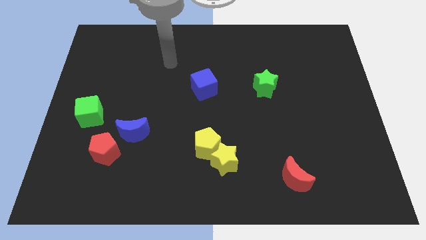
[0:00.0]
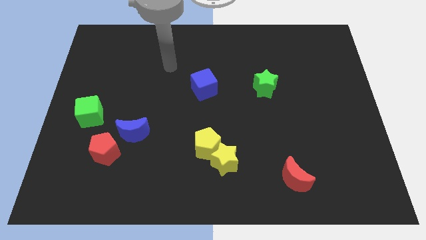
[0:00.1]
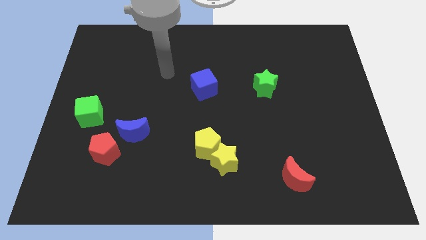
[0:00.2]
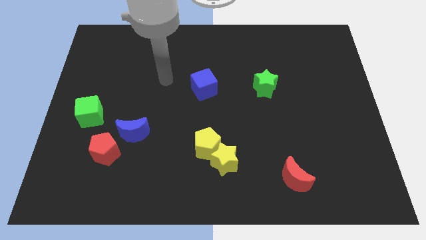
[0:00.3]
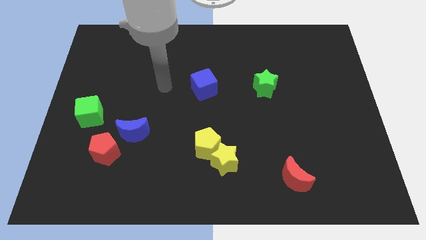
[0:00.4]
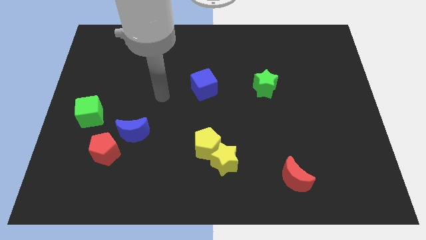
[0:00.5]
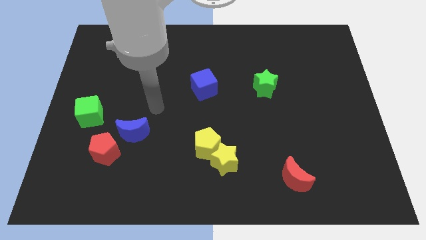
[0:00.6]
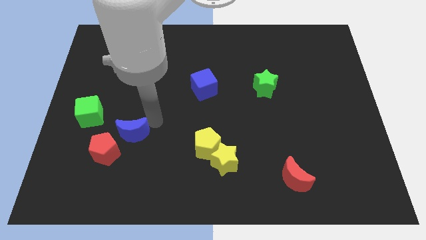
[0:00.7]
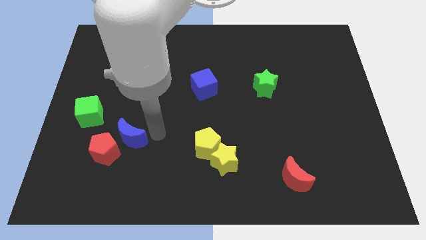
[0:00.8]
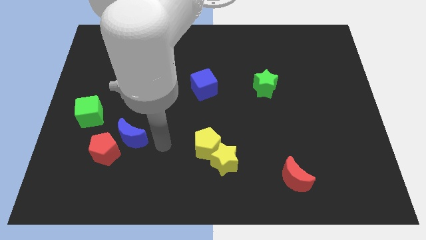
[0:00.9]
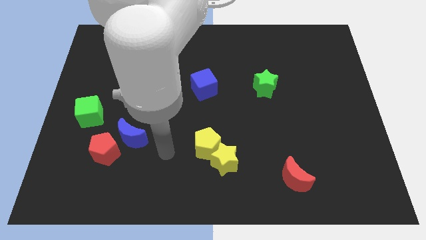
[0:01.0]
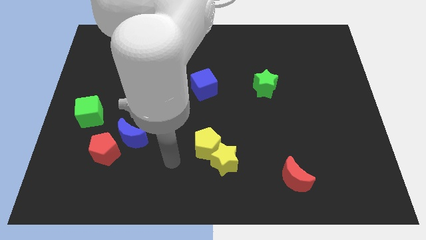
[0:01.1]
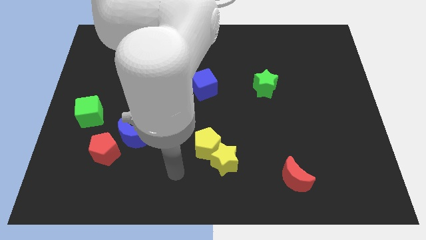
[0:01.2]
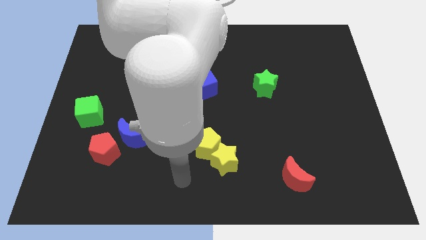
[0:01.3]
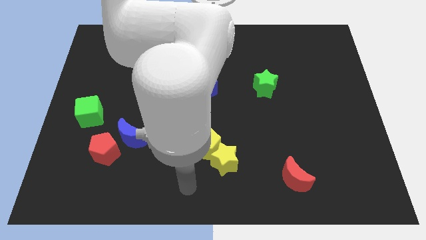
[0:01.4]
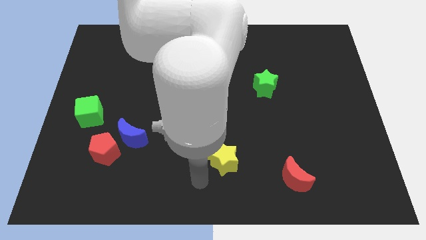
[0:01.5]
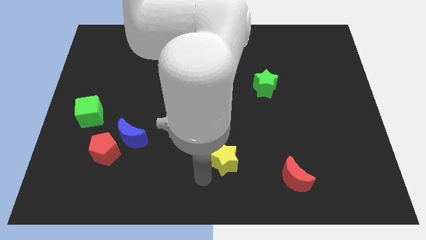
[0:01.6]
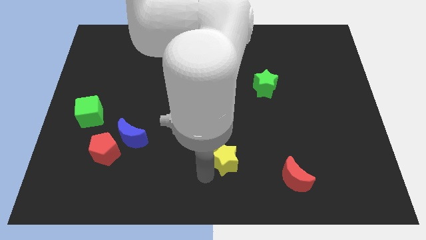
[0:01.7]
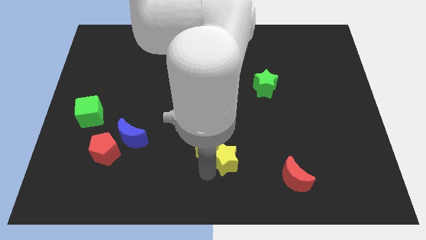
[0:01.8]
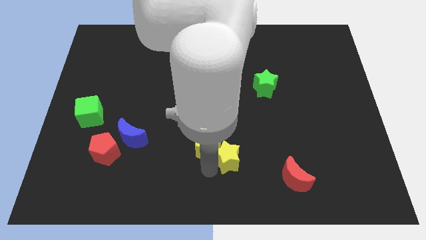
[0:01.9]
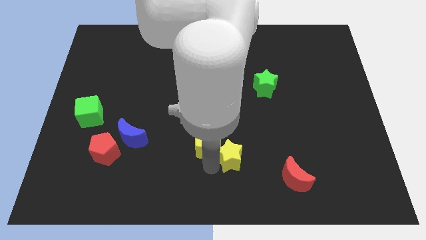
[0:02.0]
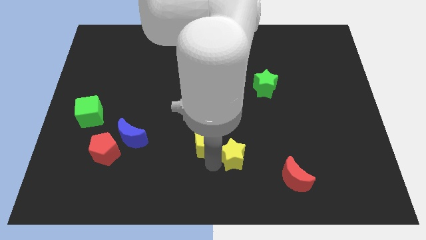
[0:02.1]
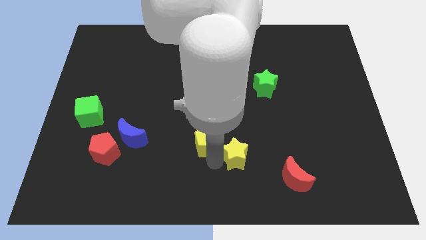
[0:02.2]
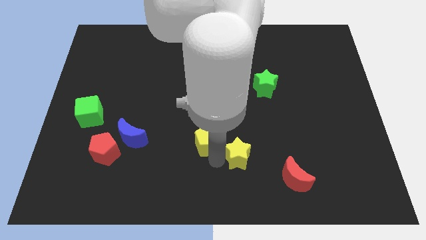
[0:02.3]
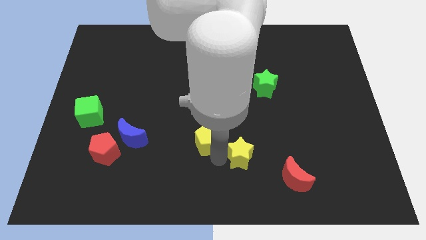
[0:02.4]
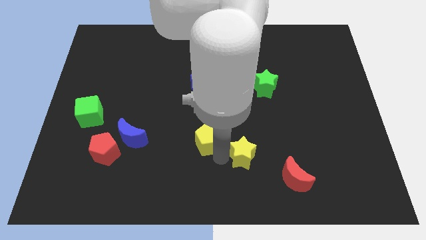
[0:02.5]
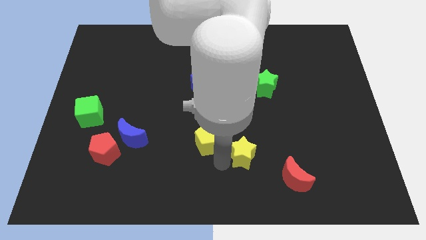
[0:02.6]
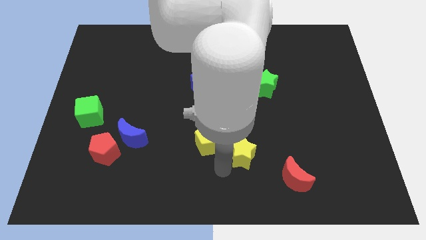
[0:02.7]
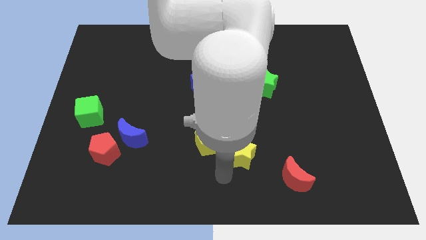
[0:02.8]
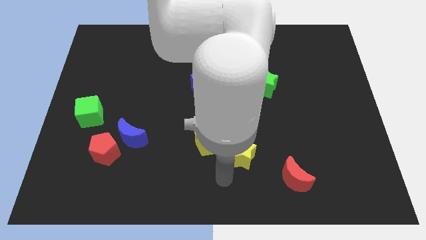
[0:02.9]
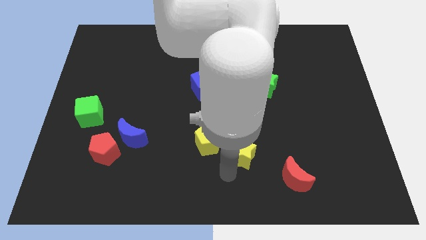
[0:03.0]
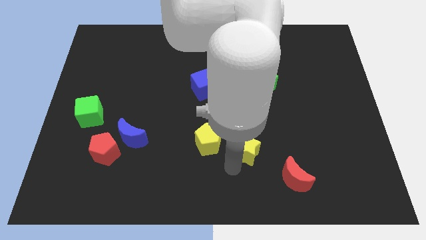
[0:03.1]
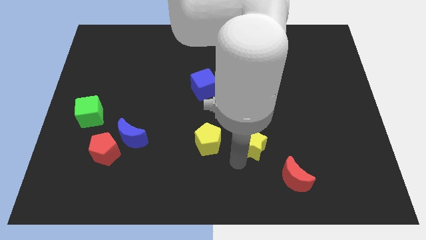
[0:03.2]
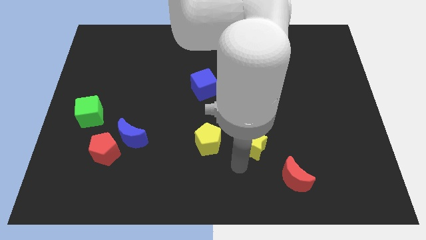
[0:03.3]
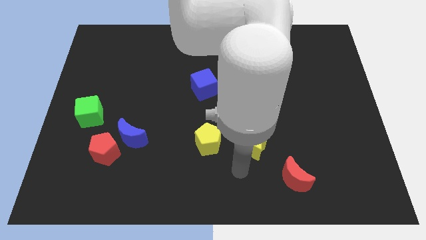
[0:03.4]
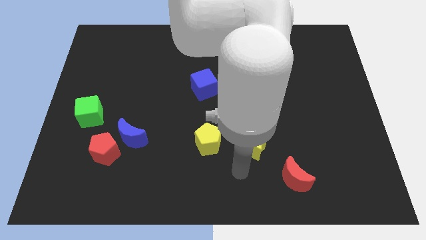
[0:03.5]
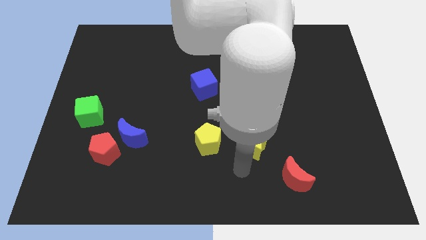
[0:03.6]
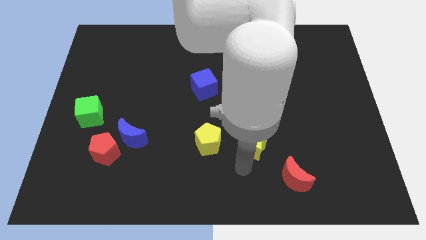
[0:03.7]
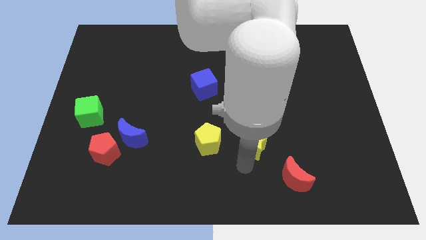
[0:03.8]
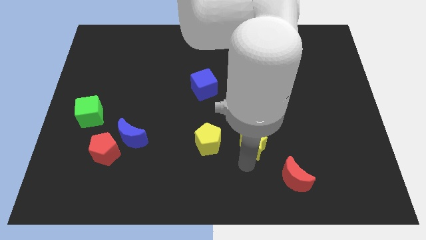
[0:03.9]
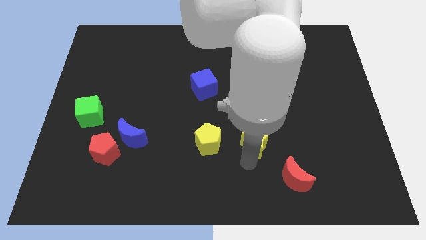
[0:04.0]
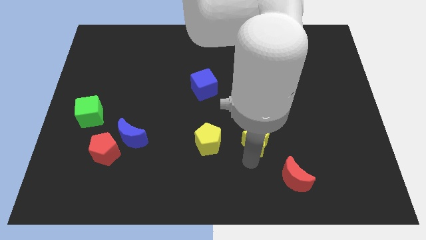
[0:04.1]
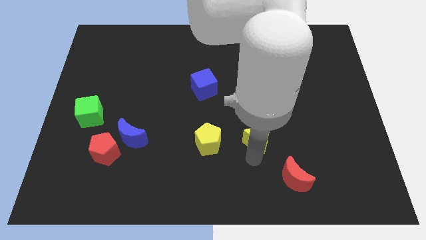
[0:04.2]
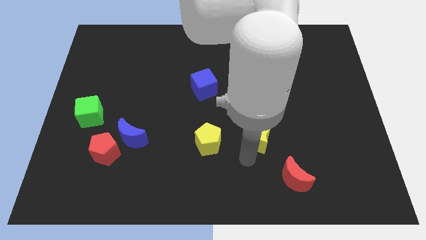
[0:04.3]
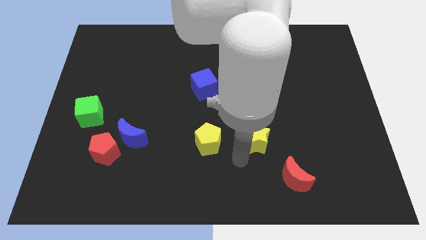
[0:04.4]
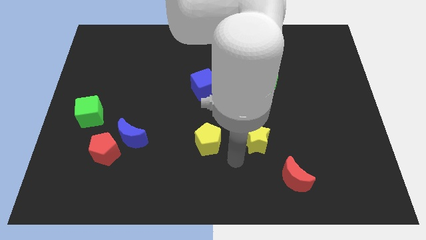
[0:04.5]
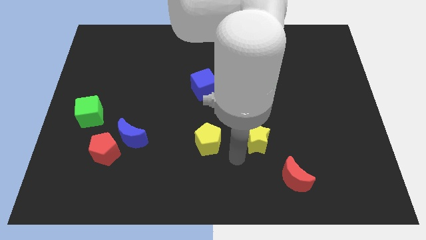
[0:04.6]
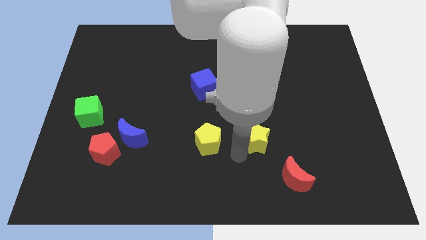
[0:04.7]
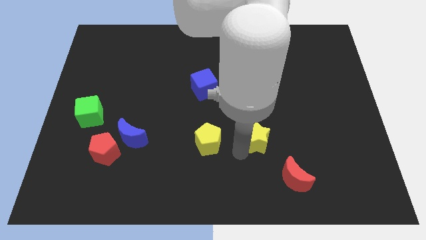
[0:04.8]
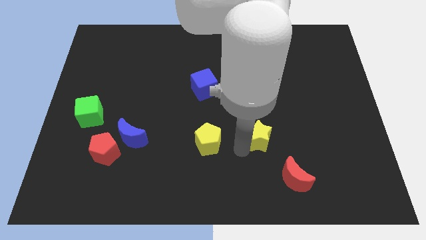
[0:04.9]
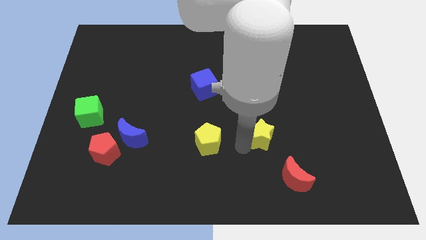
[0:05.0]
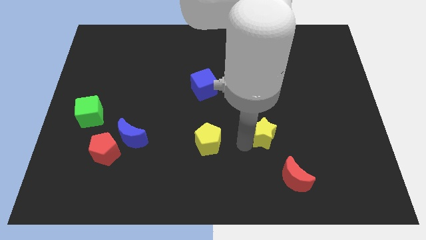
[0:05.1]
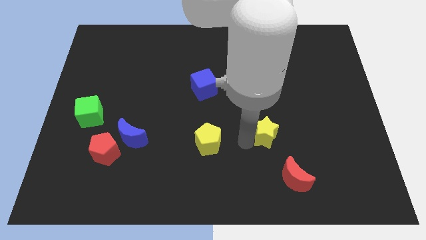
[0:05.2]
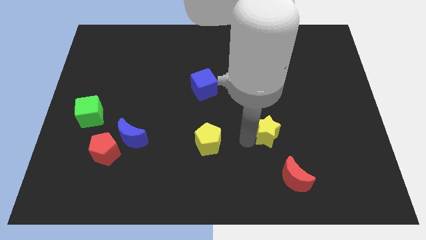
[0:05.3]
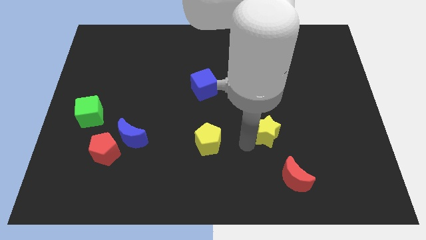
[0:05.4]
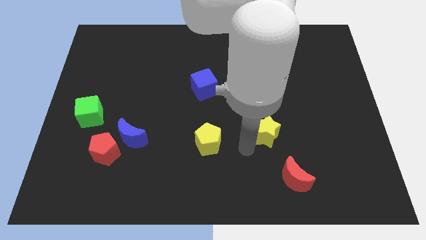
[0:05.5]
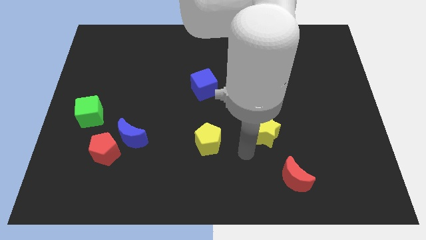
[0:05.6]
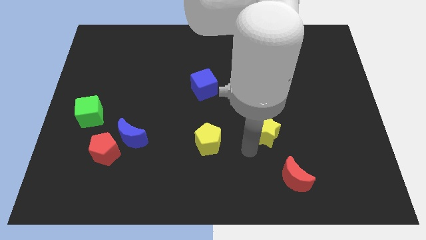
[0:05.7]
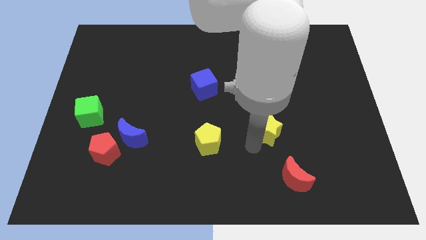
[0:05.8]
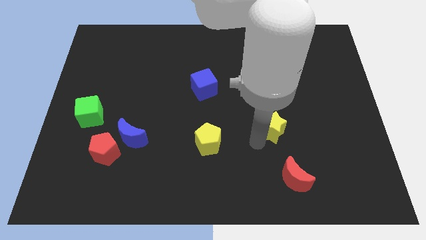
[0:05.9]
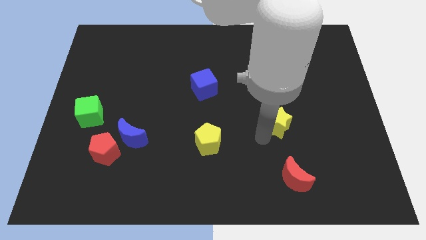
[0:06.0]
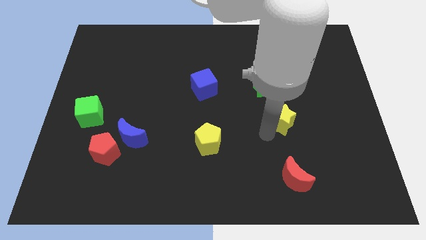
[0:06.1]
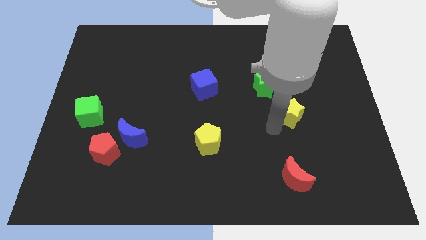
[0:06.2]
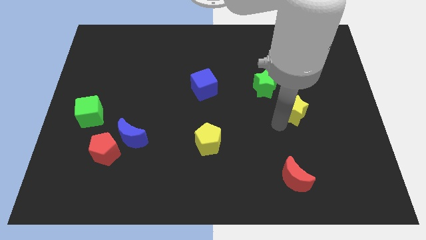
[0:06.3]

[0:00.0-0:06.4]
move the yellow star up and then to the right

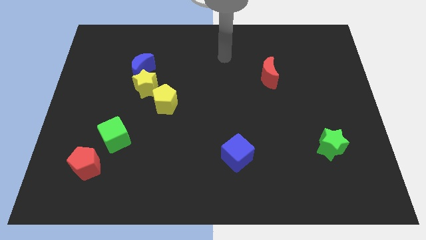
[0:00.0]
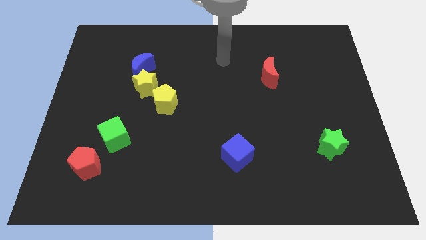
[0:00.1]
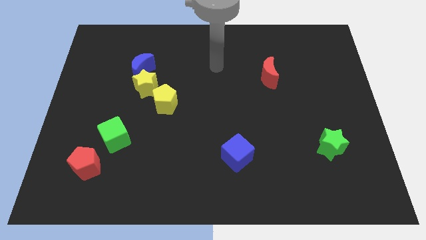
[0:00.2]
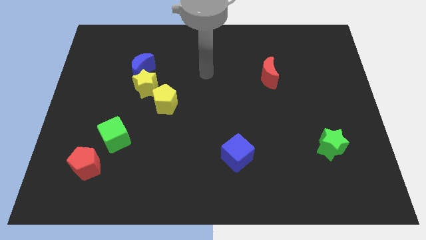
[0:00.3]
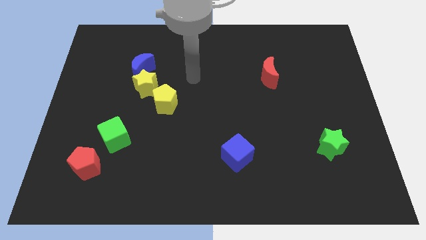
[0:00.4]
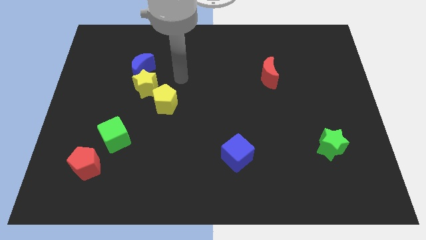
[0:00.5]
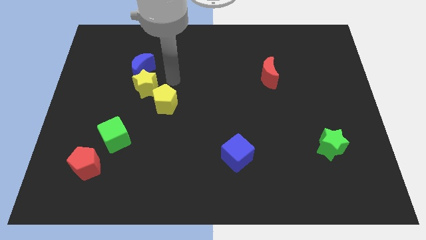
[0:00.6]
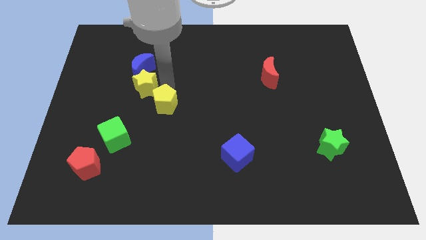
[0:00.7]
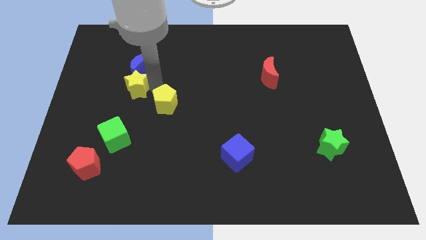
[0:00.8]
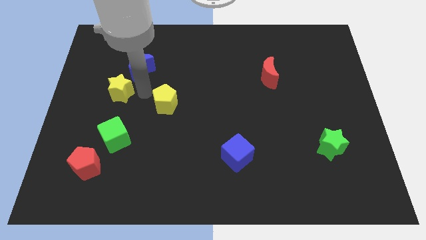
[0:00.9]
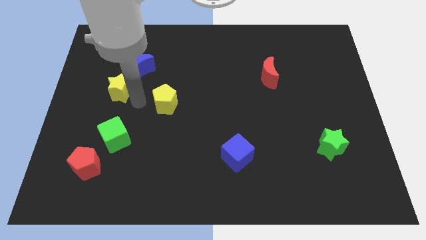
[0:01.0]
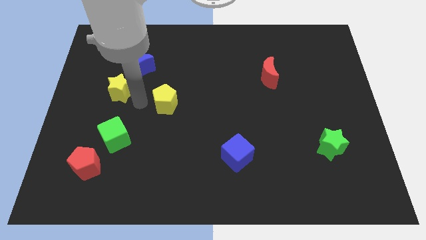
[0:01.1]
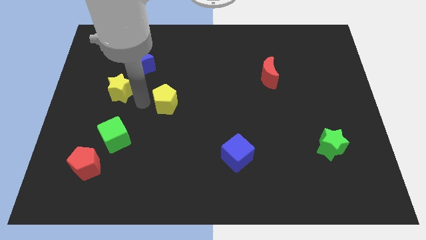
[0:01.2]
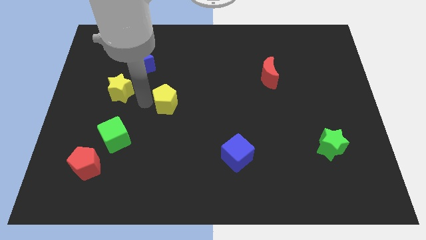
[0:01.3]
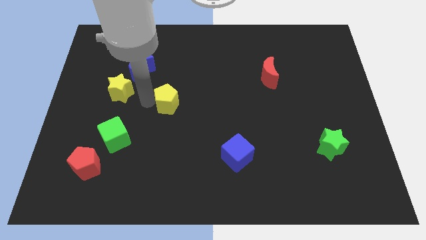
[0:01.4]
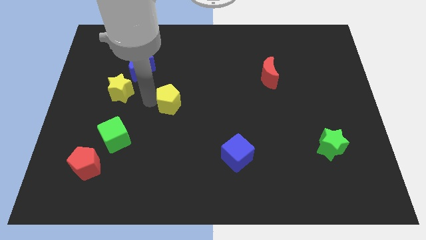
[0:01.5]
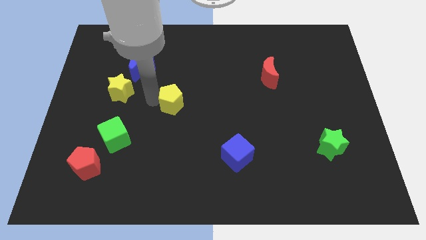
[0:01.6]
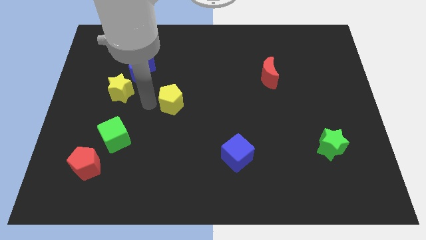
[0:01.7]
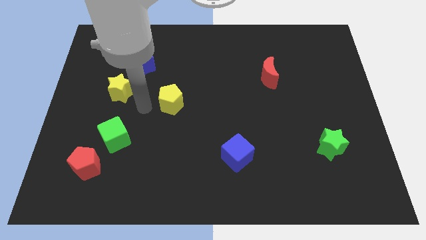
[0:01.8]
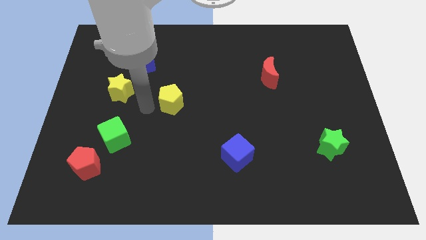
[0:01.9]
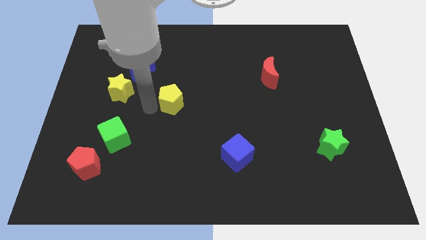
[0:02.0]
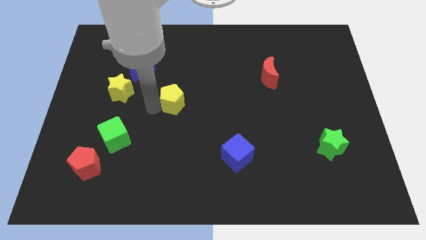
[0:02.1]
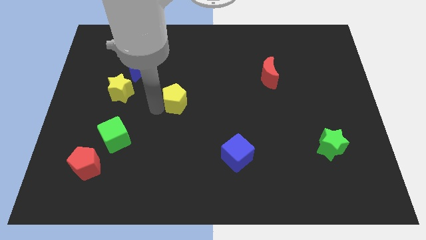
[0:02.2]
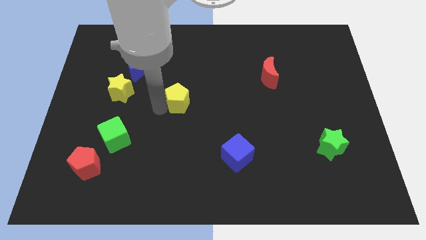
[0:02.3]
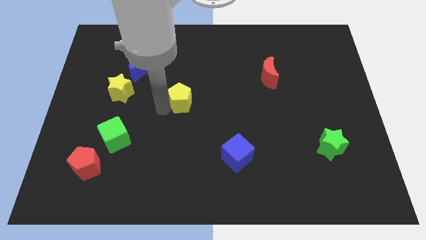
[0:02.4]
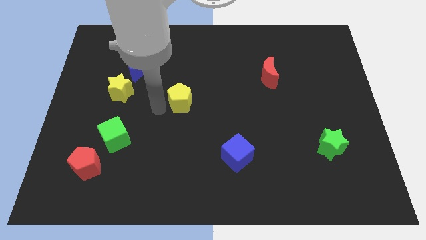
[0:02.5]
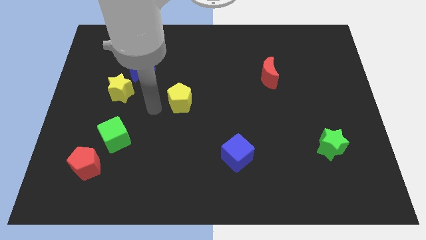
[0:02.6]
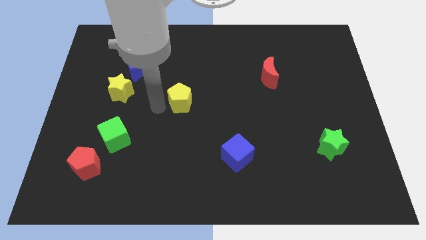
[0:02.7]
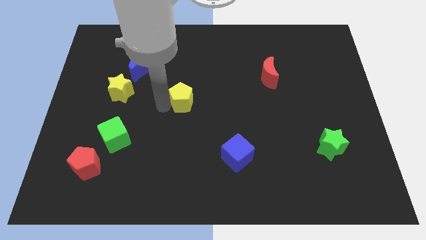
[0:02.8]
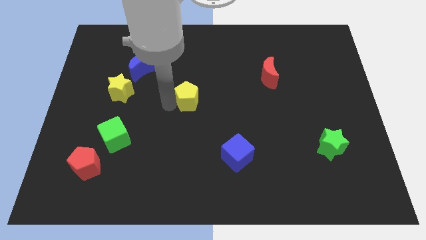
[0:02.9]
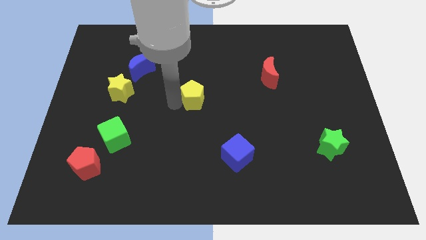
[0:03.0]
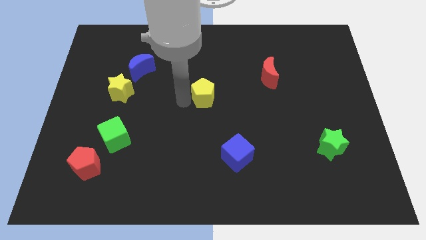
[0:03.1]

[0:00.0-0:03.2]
move the yellow pentagon to the right a bit
